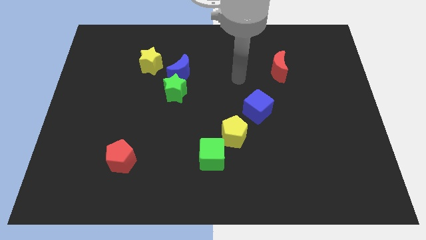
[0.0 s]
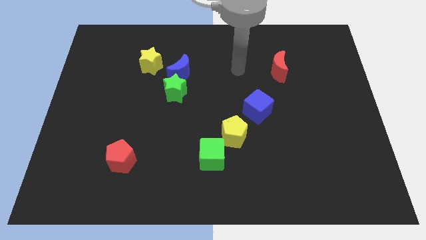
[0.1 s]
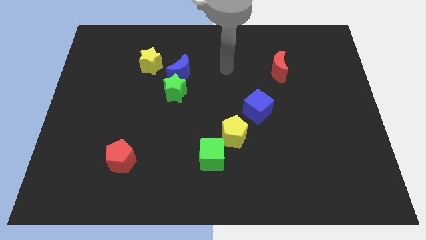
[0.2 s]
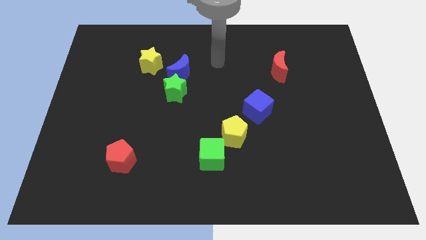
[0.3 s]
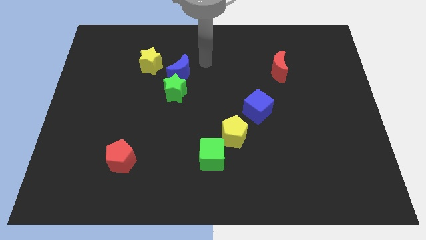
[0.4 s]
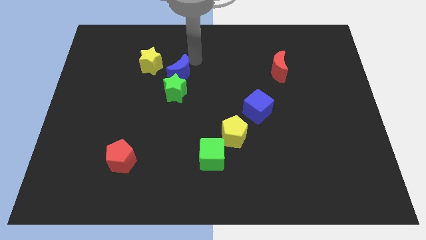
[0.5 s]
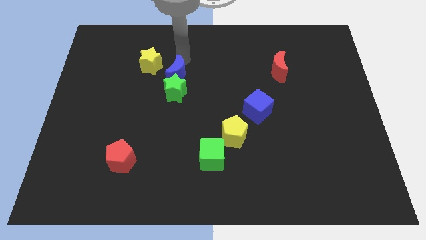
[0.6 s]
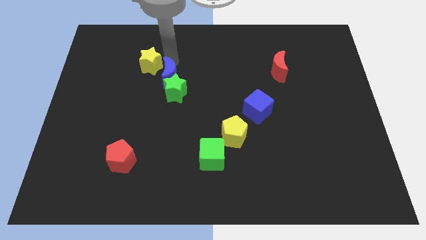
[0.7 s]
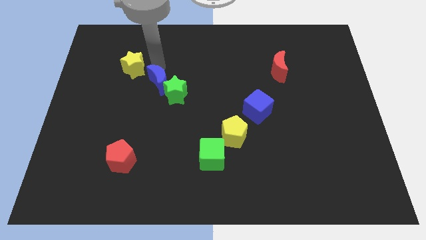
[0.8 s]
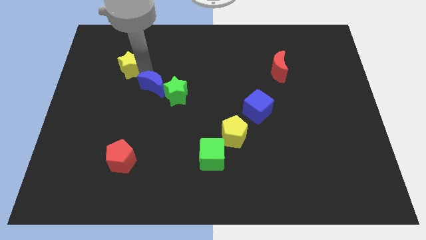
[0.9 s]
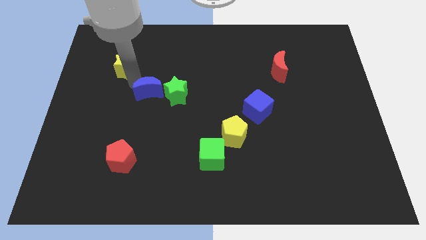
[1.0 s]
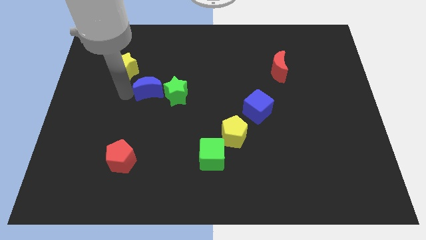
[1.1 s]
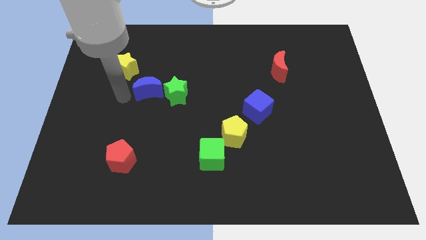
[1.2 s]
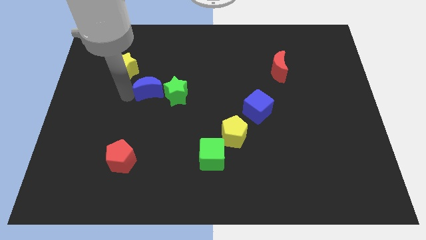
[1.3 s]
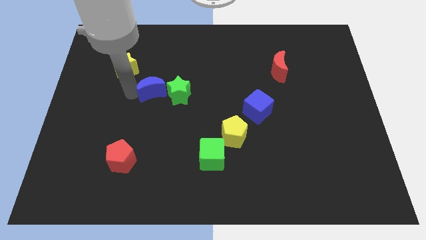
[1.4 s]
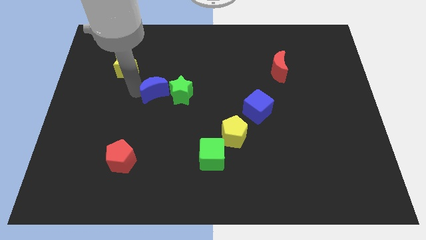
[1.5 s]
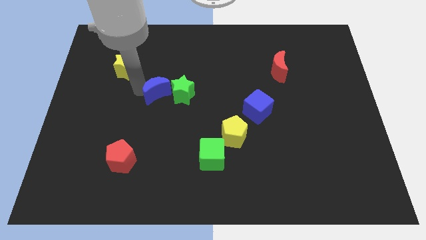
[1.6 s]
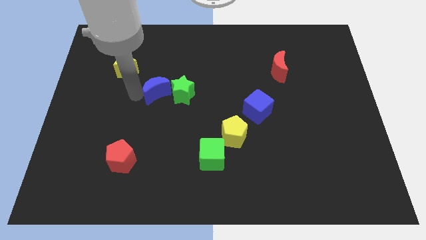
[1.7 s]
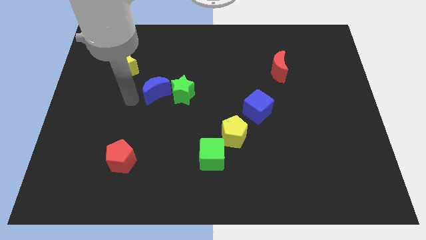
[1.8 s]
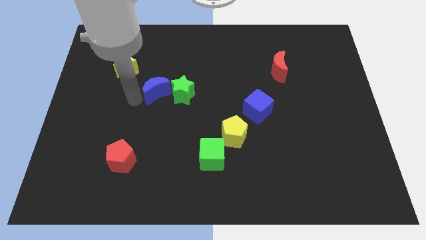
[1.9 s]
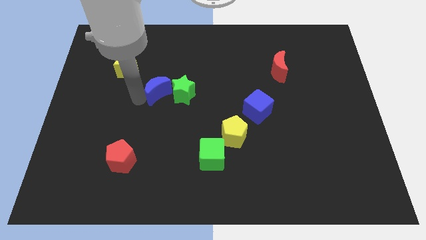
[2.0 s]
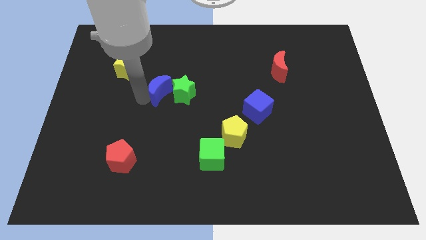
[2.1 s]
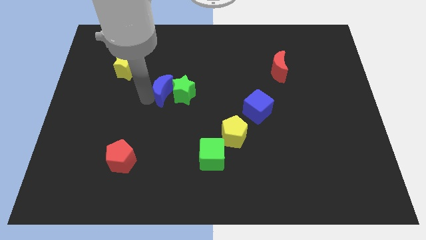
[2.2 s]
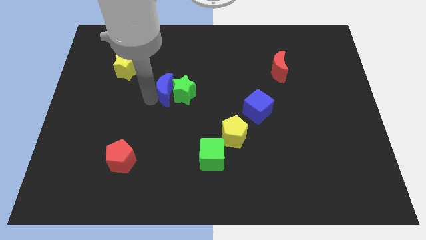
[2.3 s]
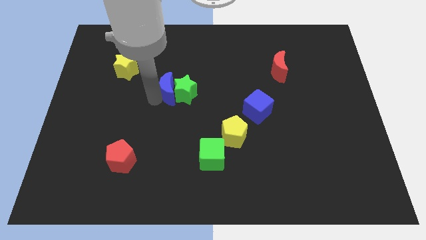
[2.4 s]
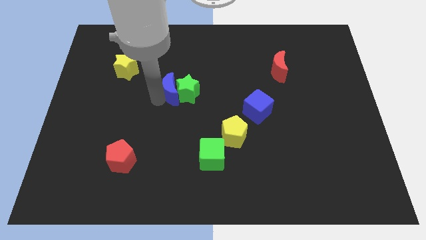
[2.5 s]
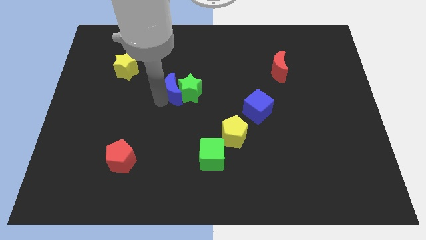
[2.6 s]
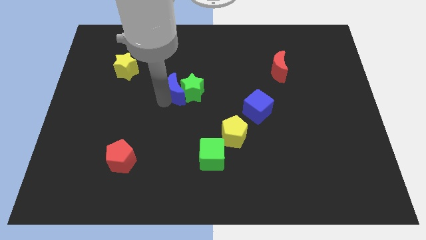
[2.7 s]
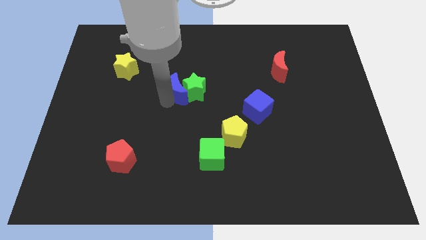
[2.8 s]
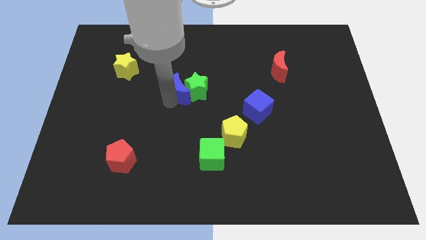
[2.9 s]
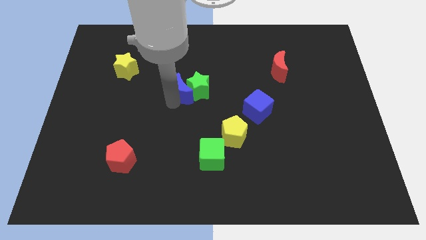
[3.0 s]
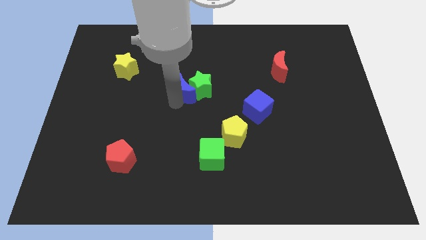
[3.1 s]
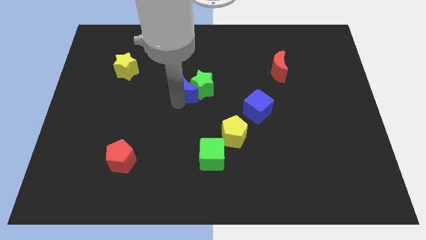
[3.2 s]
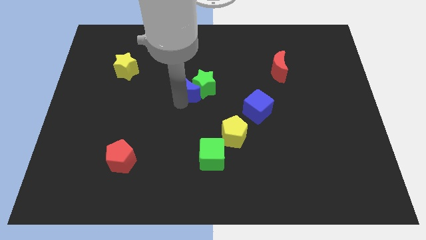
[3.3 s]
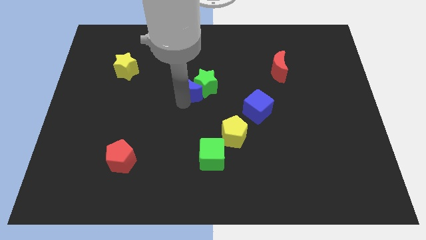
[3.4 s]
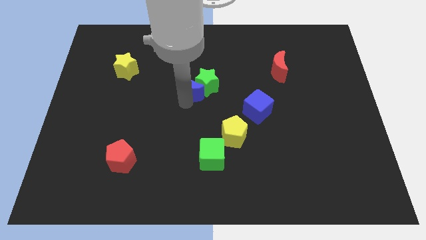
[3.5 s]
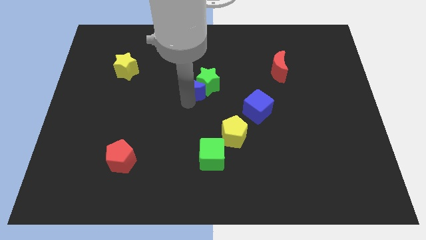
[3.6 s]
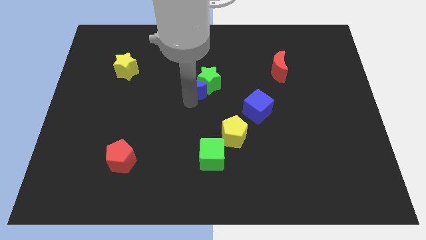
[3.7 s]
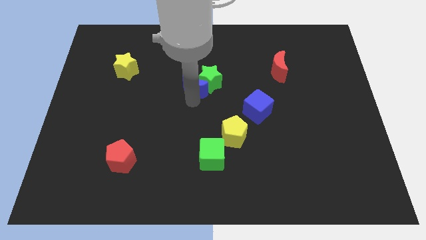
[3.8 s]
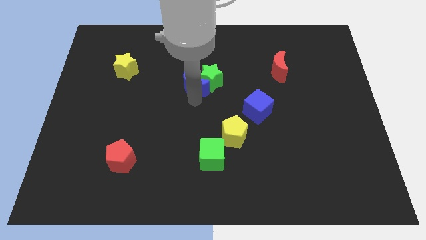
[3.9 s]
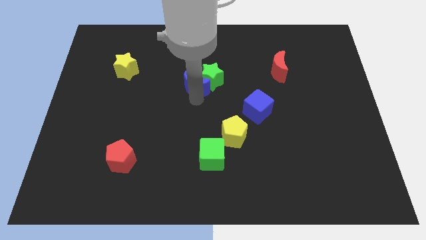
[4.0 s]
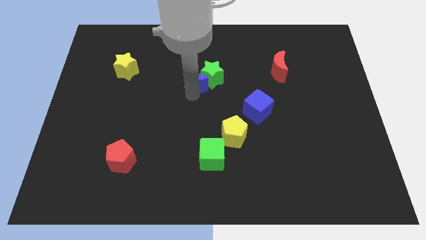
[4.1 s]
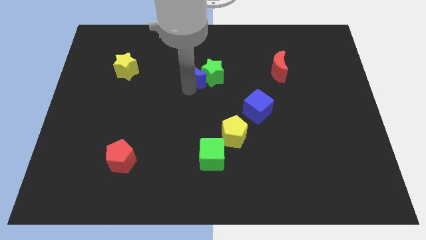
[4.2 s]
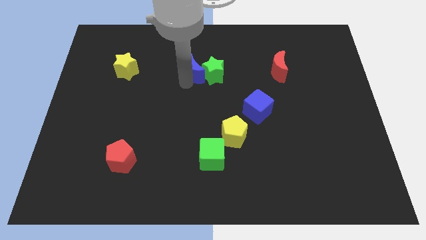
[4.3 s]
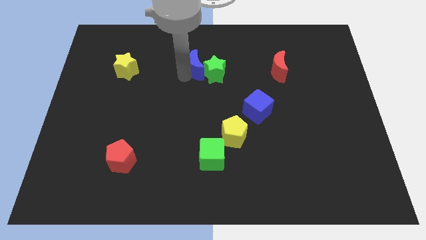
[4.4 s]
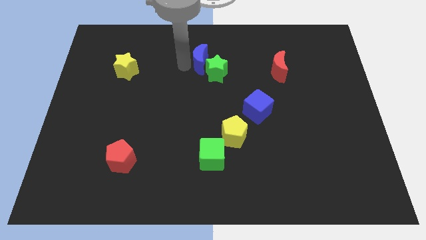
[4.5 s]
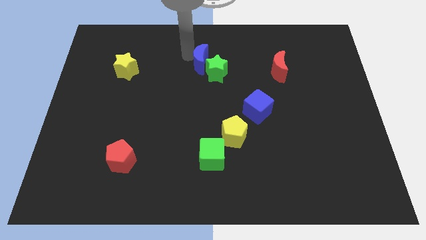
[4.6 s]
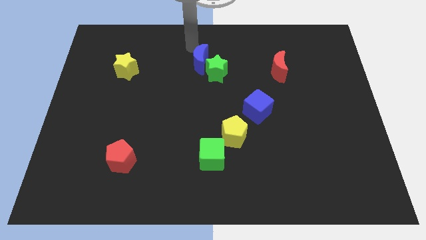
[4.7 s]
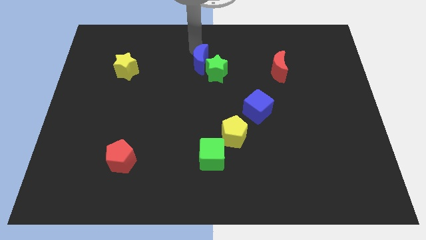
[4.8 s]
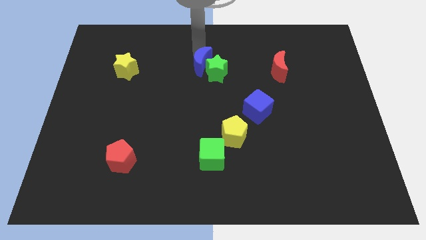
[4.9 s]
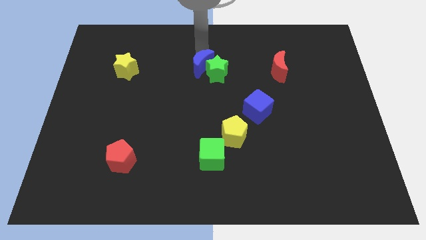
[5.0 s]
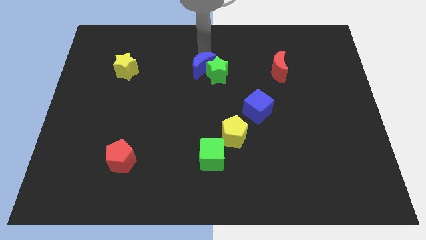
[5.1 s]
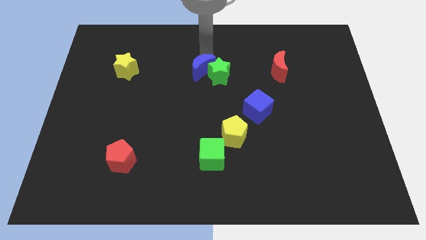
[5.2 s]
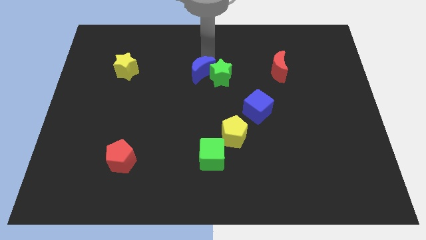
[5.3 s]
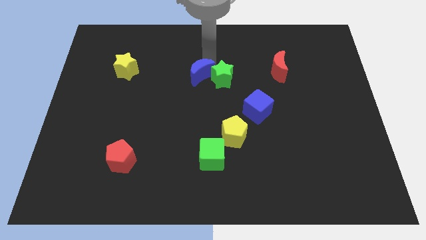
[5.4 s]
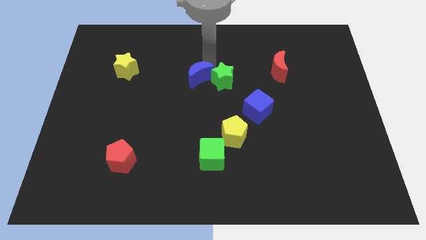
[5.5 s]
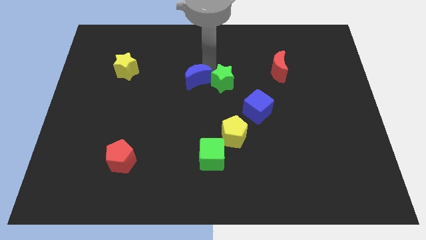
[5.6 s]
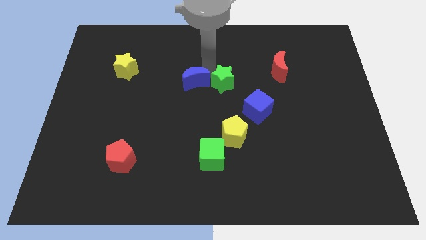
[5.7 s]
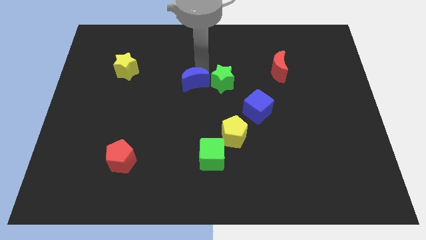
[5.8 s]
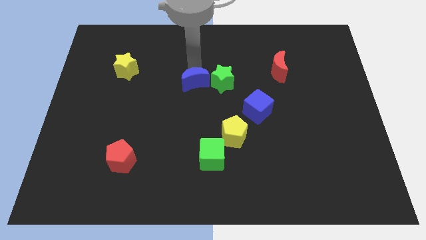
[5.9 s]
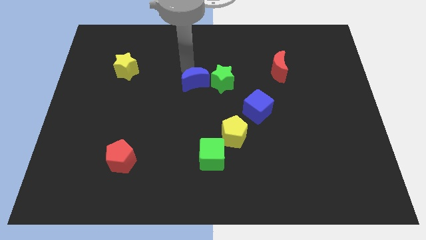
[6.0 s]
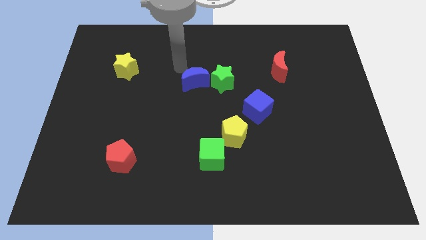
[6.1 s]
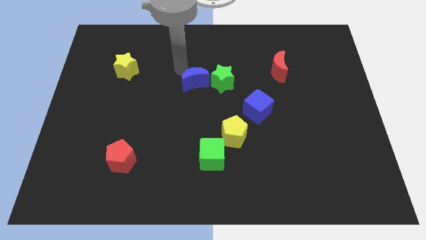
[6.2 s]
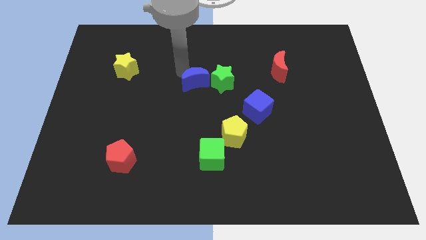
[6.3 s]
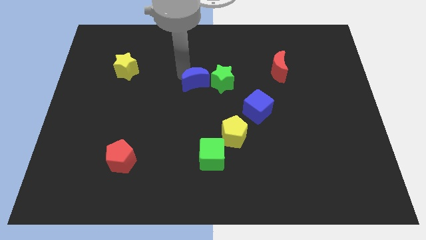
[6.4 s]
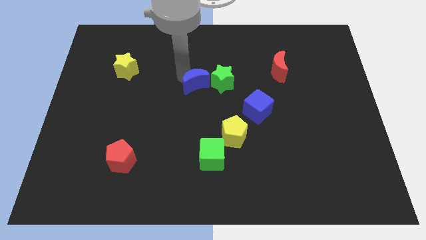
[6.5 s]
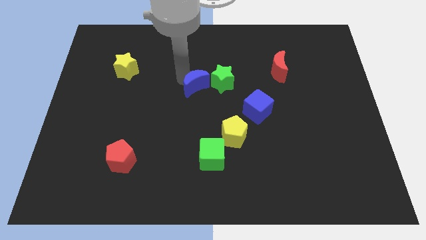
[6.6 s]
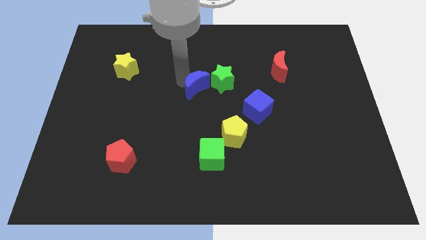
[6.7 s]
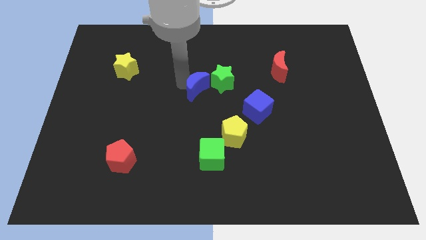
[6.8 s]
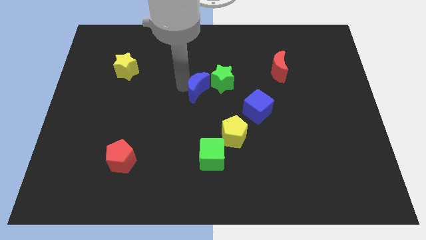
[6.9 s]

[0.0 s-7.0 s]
push the blue moon down and to the right a little bit

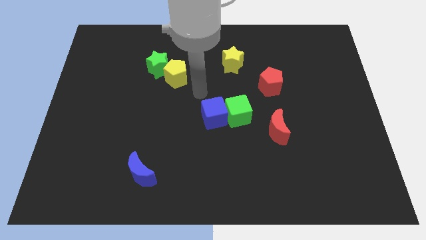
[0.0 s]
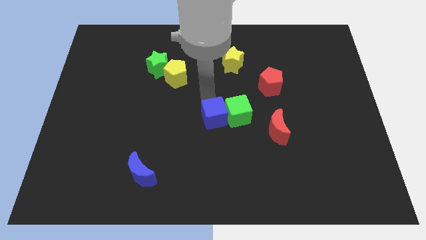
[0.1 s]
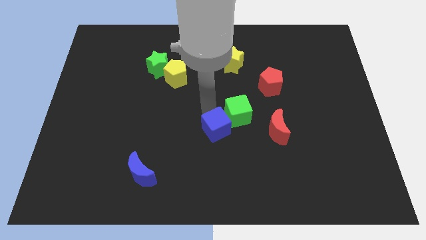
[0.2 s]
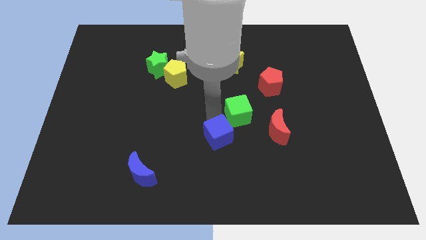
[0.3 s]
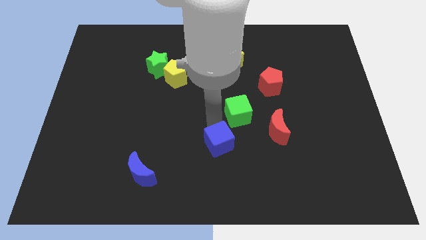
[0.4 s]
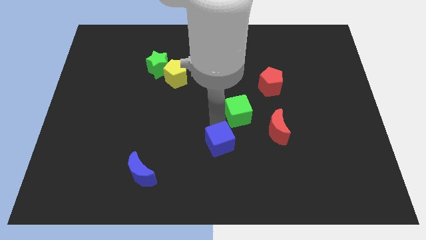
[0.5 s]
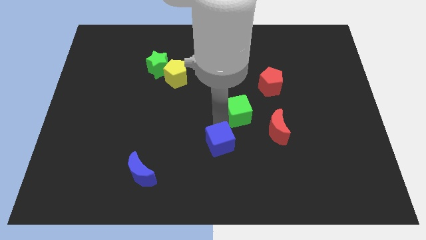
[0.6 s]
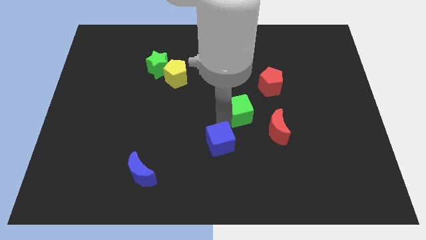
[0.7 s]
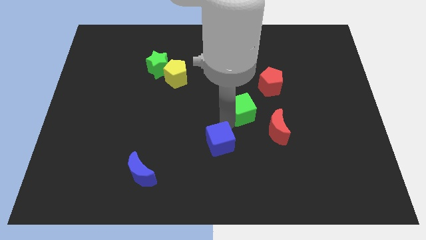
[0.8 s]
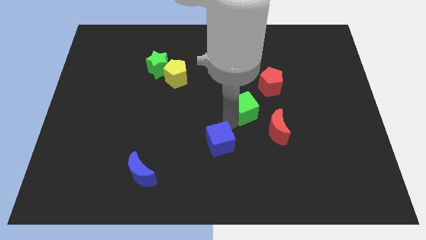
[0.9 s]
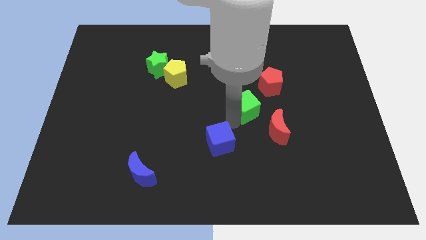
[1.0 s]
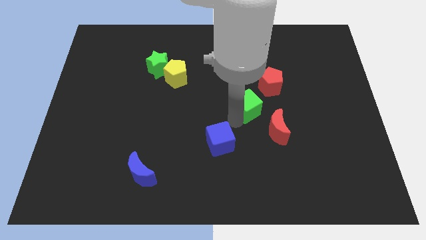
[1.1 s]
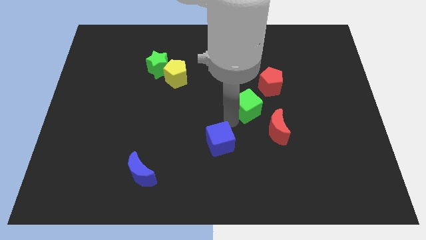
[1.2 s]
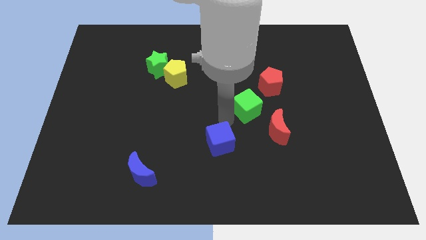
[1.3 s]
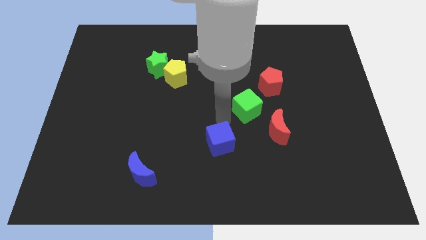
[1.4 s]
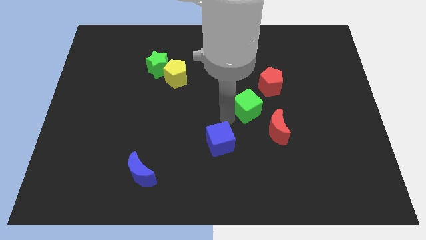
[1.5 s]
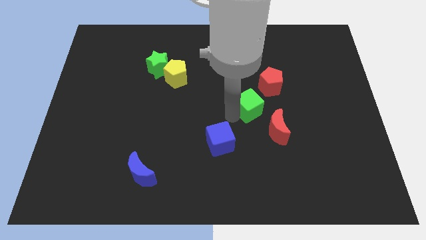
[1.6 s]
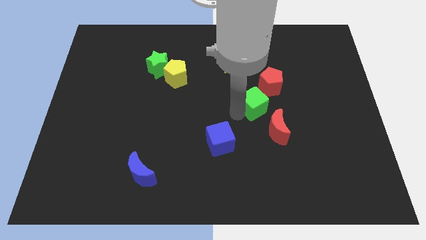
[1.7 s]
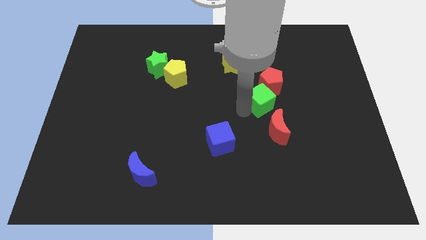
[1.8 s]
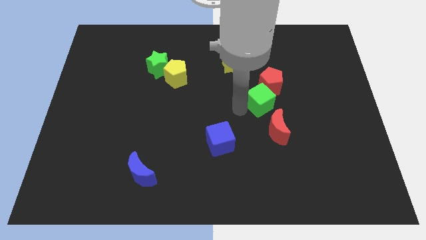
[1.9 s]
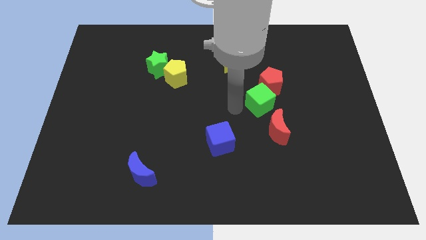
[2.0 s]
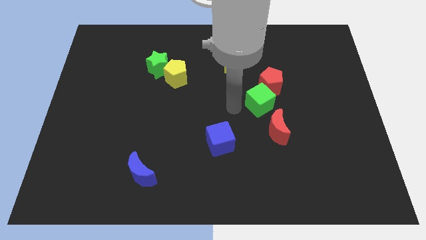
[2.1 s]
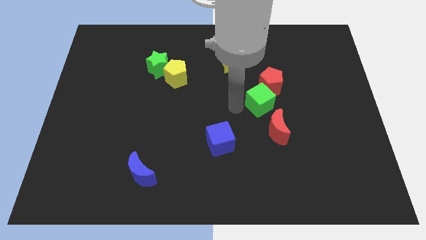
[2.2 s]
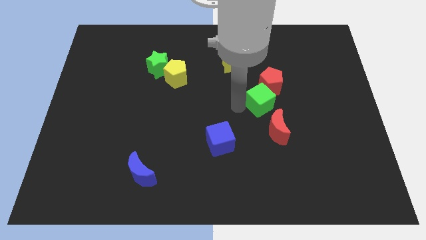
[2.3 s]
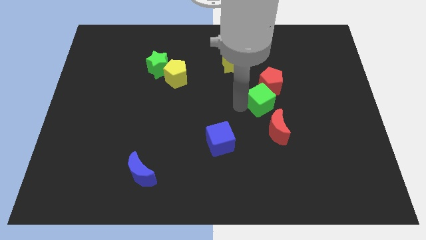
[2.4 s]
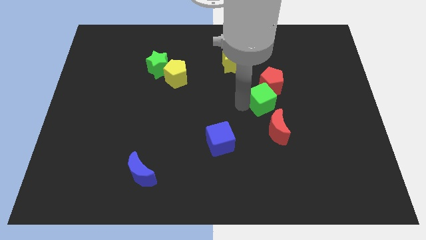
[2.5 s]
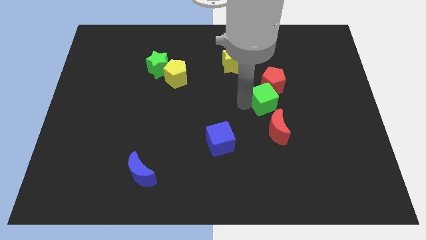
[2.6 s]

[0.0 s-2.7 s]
slide the green cube slightly diagonally upwards and right
